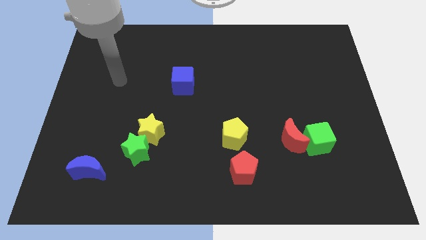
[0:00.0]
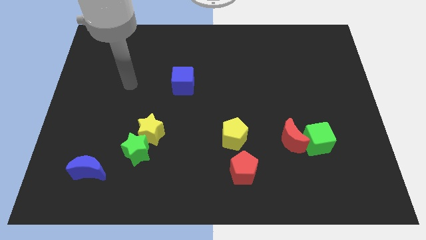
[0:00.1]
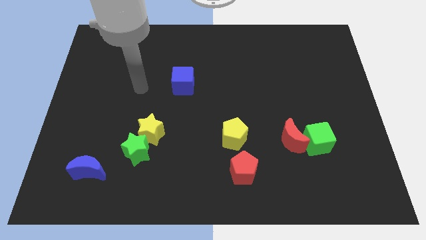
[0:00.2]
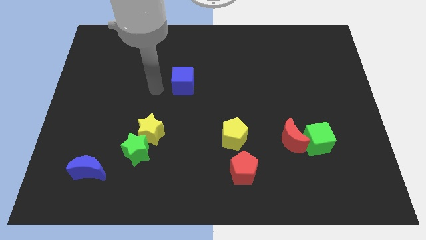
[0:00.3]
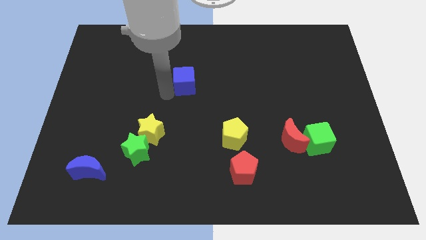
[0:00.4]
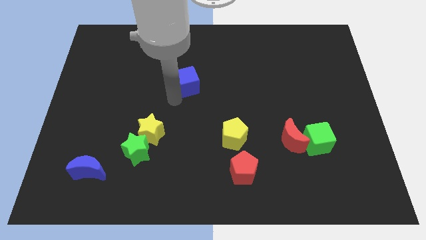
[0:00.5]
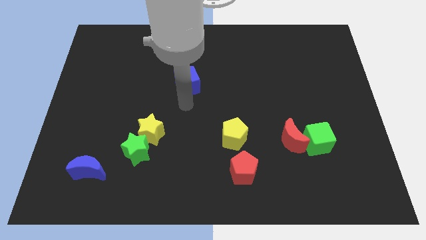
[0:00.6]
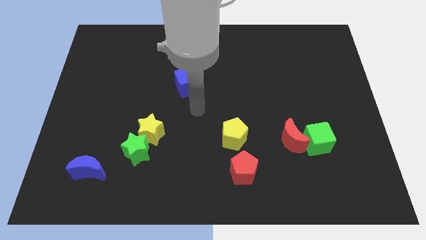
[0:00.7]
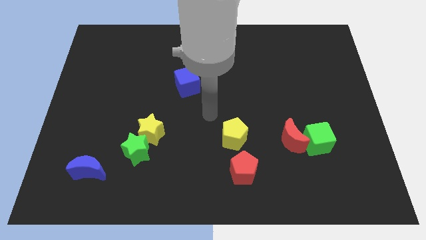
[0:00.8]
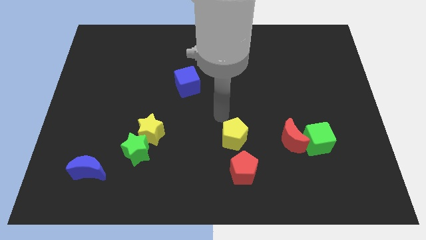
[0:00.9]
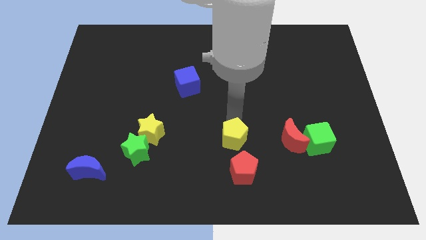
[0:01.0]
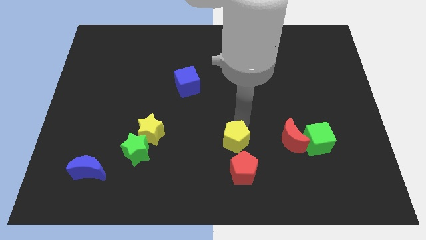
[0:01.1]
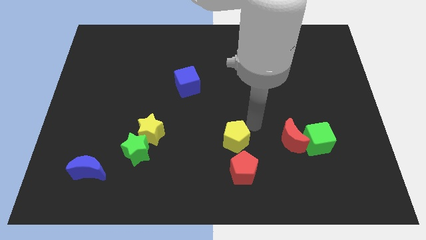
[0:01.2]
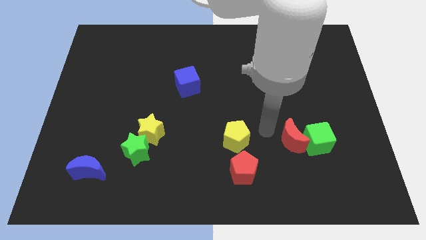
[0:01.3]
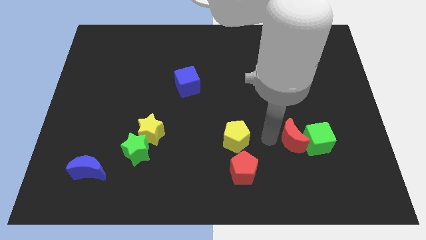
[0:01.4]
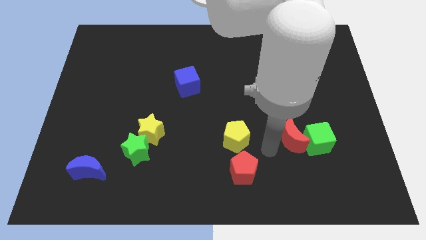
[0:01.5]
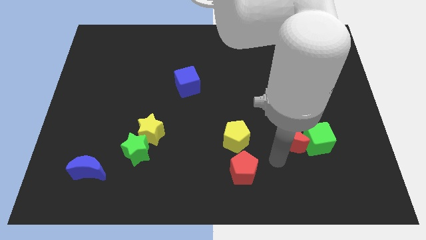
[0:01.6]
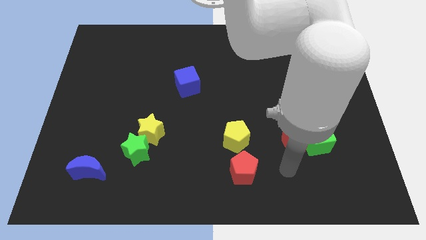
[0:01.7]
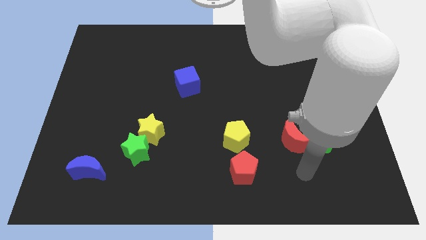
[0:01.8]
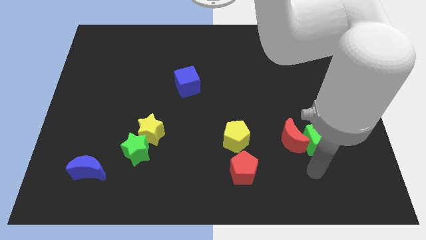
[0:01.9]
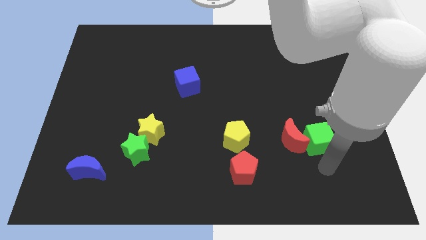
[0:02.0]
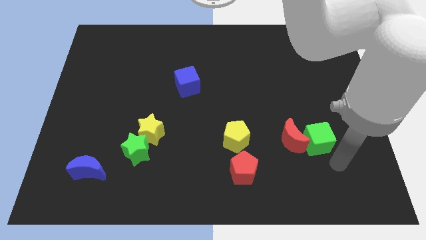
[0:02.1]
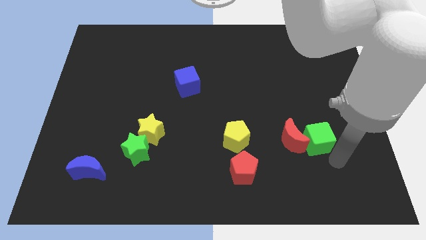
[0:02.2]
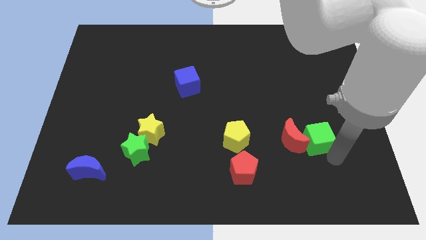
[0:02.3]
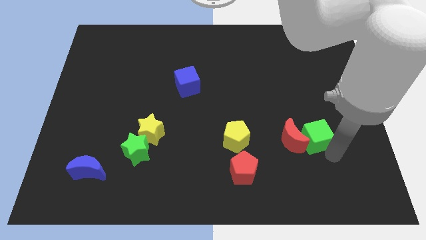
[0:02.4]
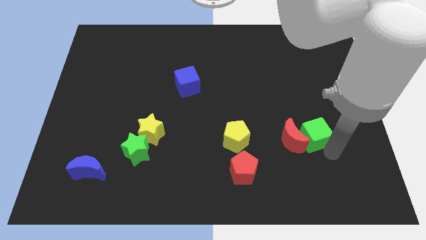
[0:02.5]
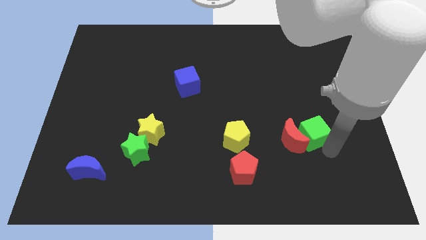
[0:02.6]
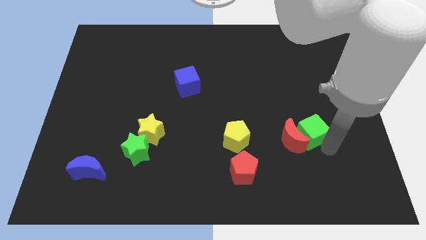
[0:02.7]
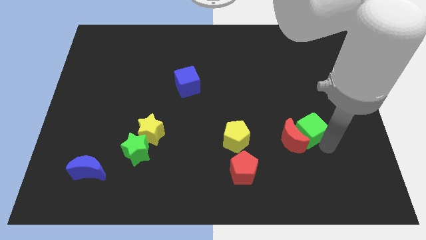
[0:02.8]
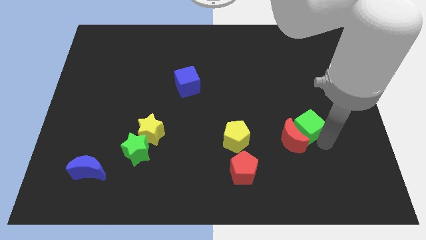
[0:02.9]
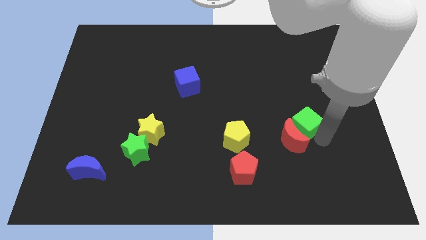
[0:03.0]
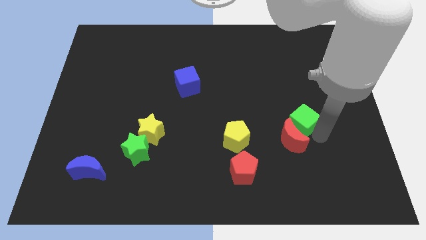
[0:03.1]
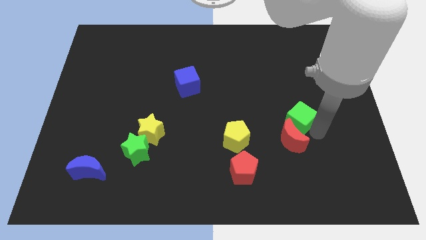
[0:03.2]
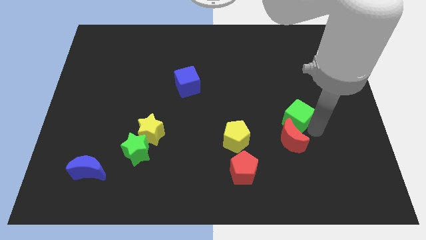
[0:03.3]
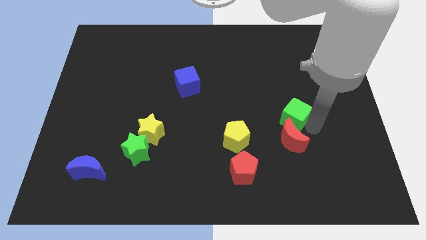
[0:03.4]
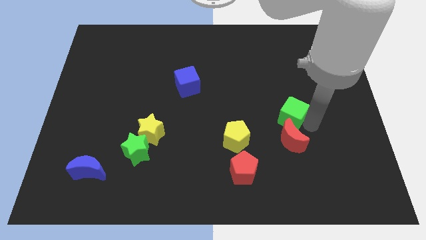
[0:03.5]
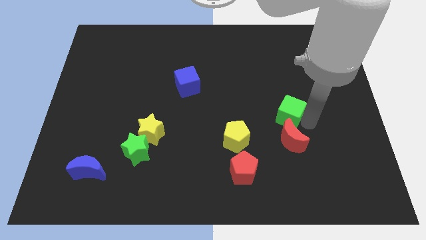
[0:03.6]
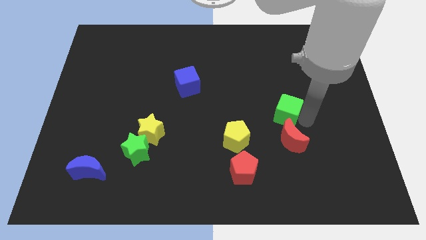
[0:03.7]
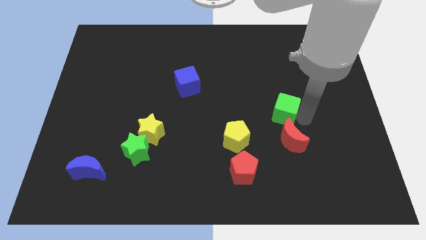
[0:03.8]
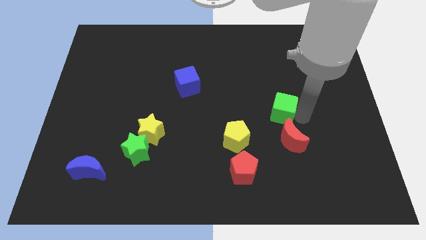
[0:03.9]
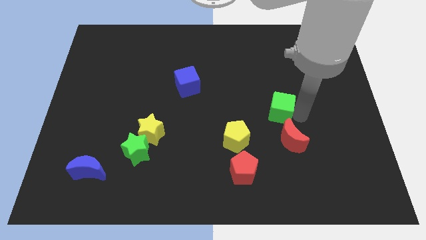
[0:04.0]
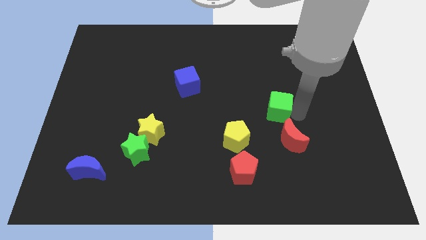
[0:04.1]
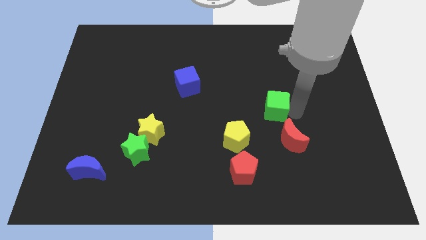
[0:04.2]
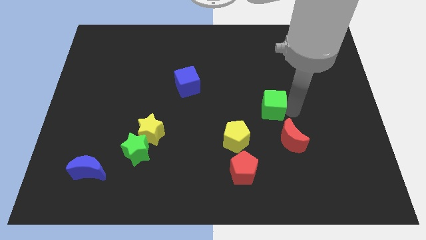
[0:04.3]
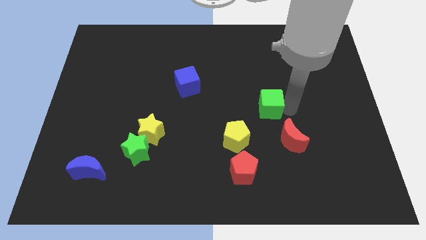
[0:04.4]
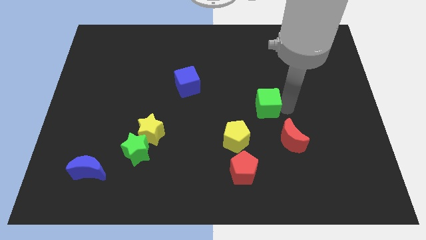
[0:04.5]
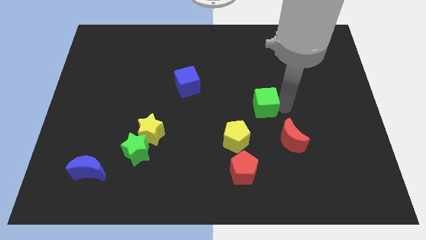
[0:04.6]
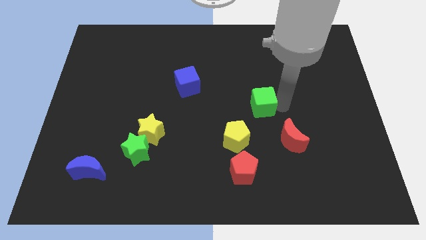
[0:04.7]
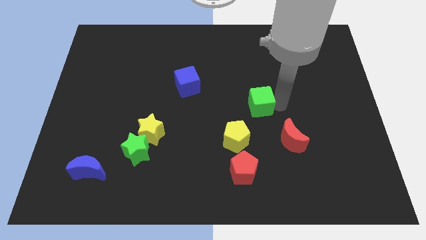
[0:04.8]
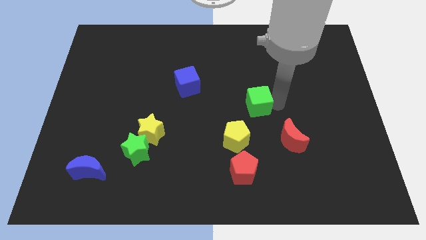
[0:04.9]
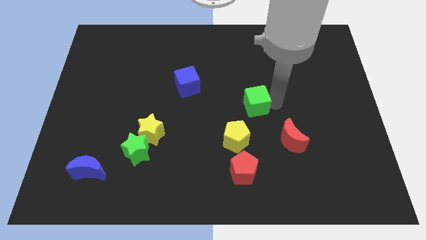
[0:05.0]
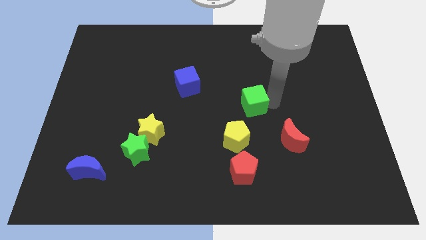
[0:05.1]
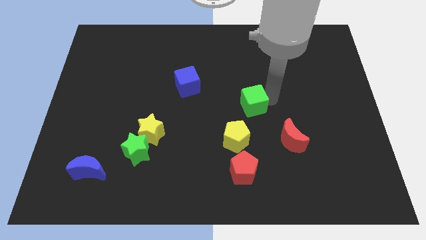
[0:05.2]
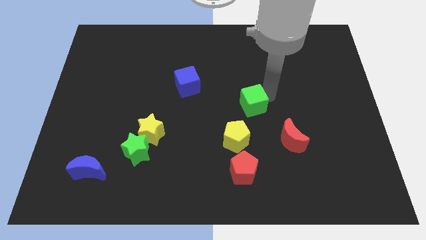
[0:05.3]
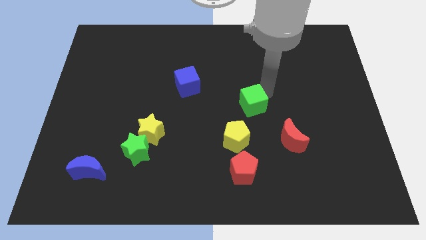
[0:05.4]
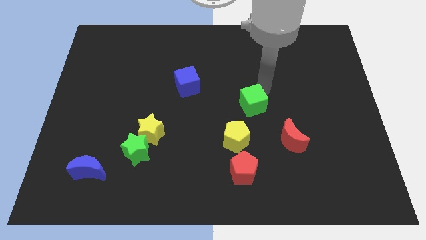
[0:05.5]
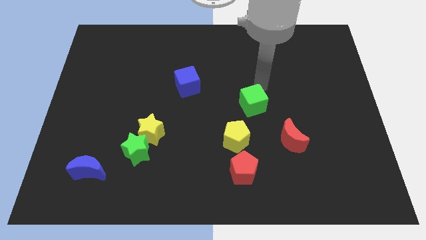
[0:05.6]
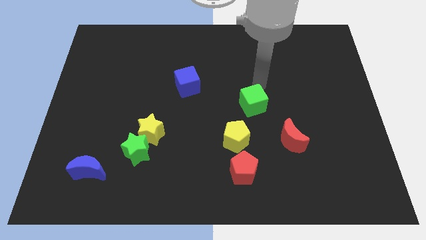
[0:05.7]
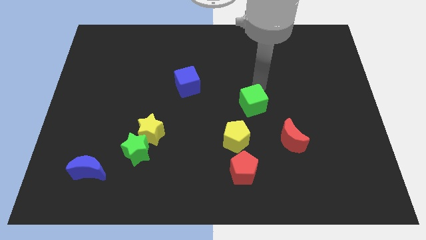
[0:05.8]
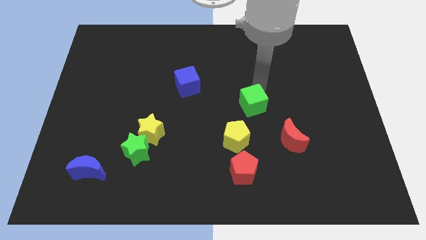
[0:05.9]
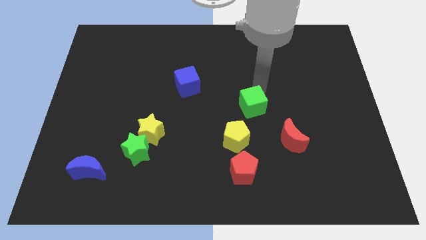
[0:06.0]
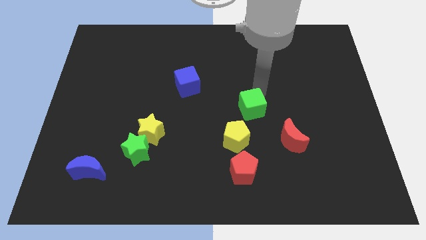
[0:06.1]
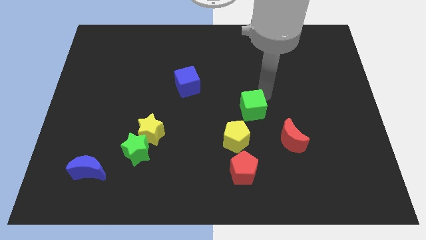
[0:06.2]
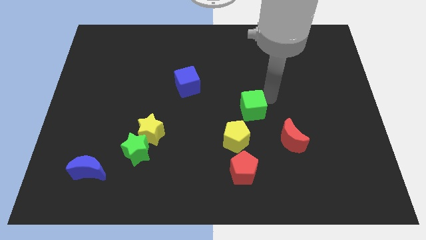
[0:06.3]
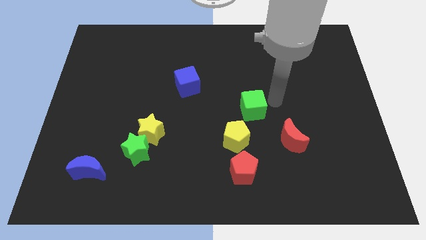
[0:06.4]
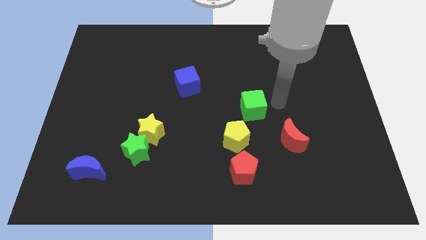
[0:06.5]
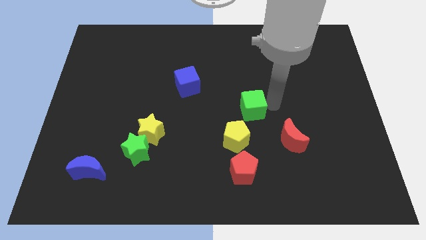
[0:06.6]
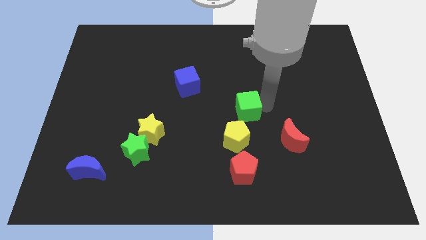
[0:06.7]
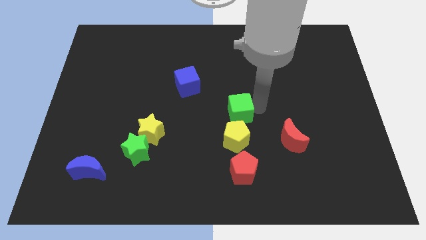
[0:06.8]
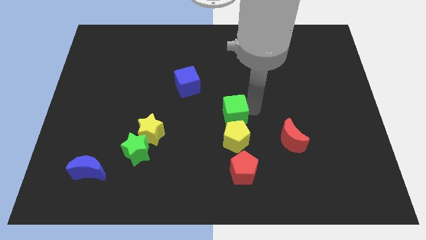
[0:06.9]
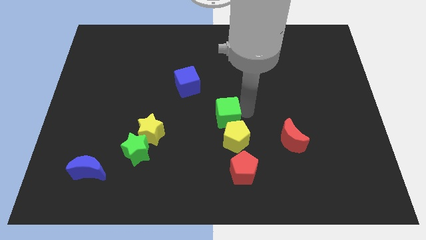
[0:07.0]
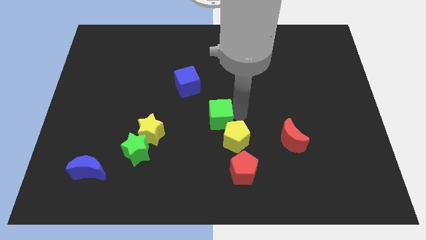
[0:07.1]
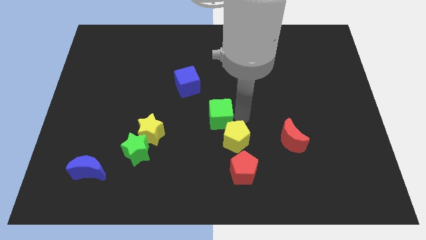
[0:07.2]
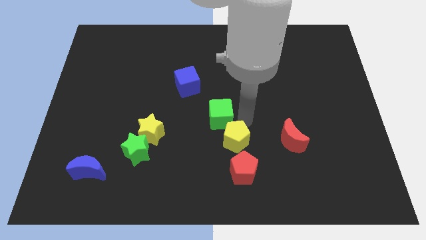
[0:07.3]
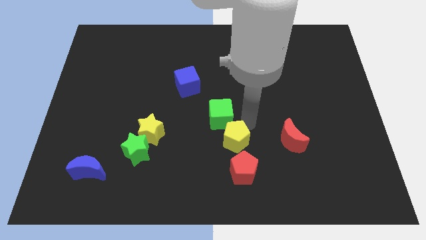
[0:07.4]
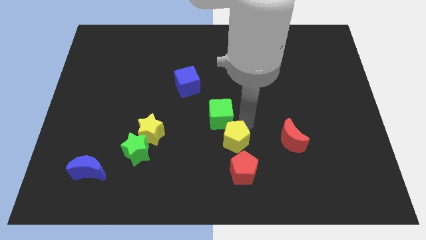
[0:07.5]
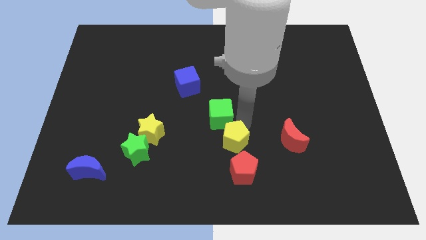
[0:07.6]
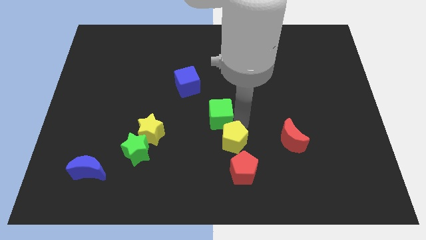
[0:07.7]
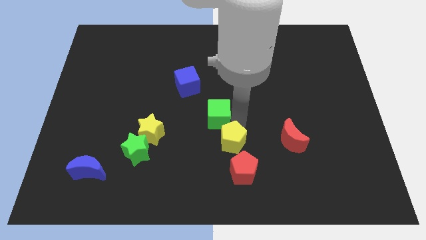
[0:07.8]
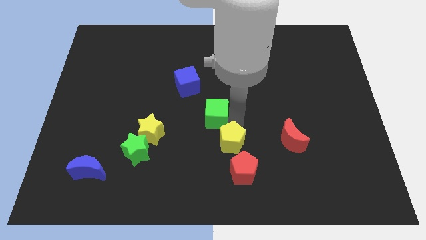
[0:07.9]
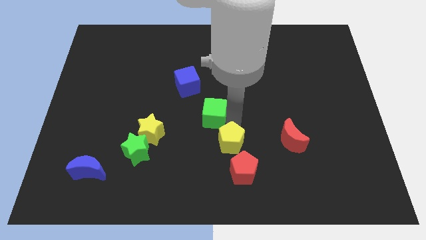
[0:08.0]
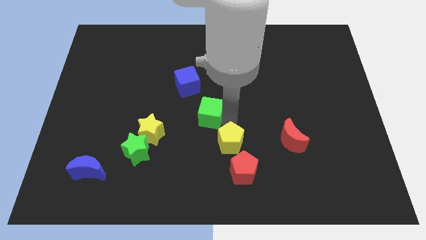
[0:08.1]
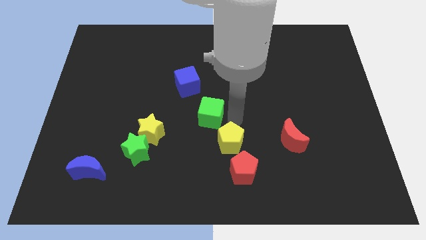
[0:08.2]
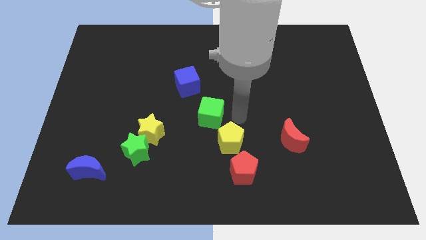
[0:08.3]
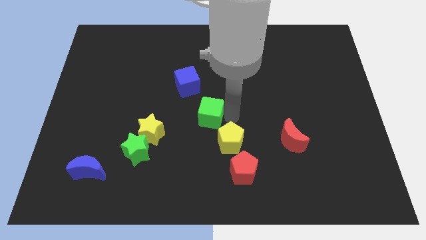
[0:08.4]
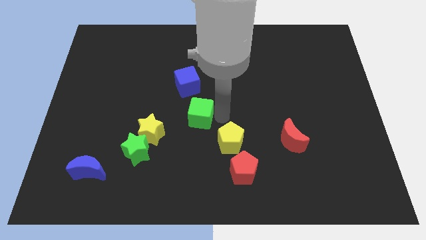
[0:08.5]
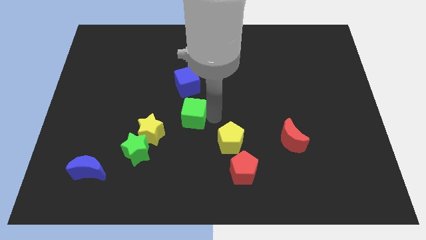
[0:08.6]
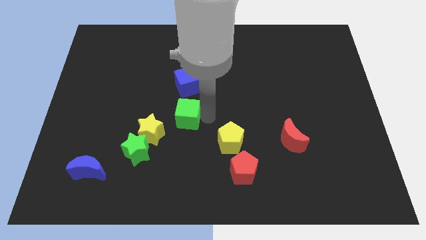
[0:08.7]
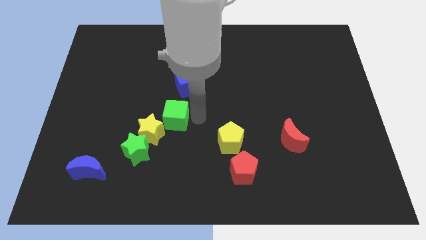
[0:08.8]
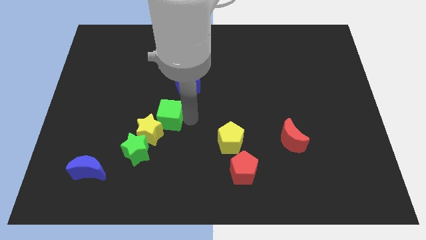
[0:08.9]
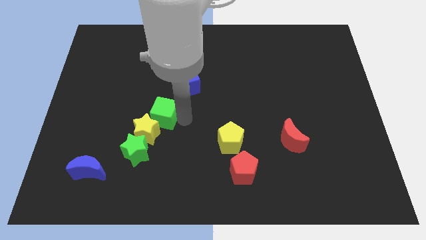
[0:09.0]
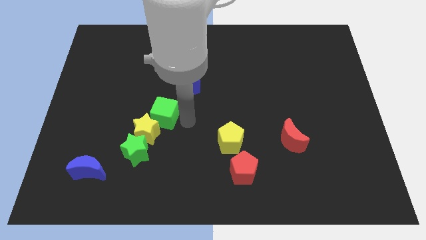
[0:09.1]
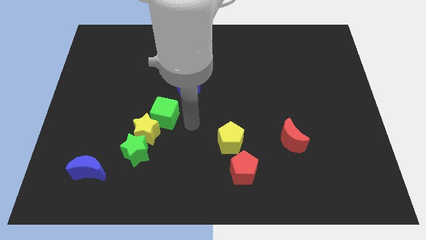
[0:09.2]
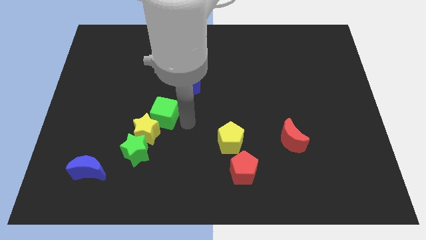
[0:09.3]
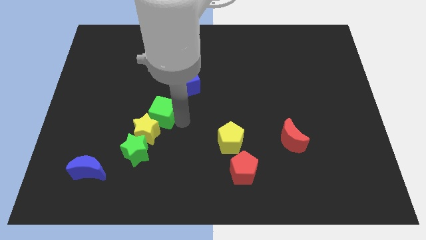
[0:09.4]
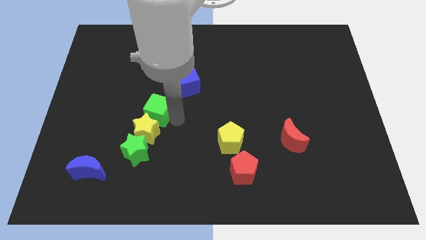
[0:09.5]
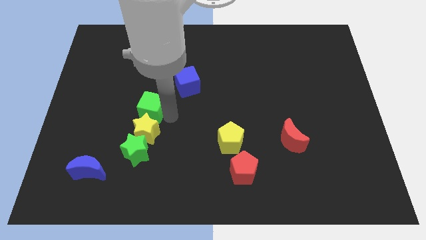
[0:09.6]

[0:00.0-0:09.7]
push the green cube diagonally up and to the left of the yellow star
